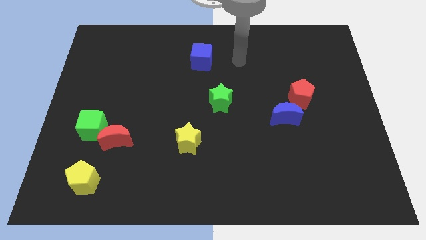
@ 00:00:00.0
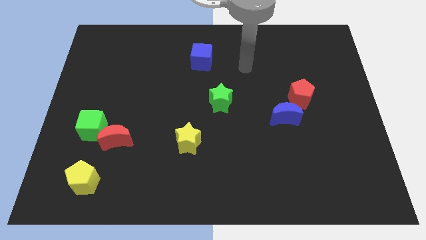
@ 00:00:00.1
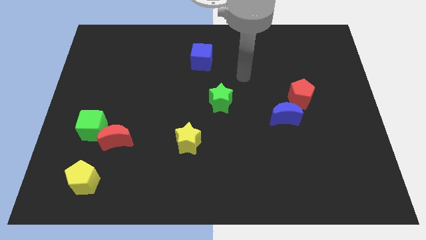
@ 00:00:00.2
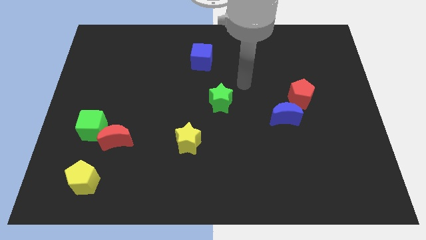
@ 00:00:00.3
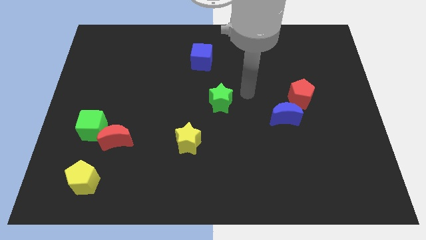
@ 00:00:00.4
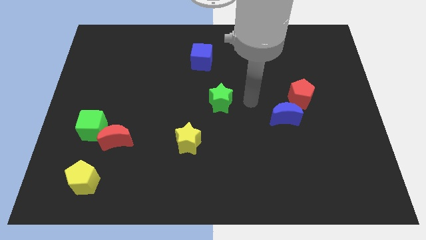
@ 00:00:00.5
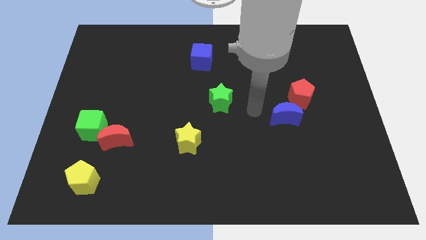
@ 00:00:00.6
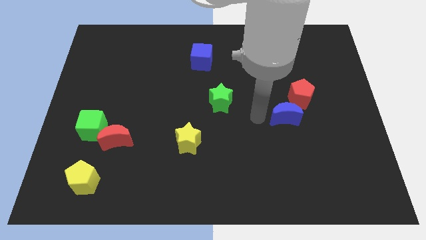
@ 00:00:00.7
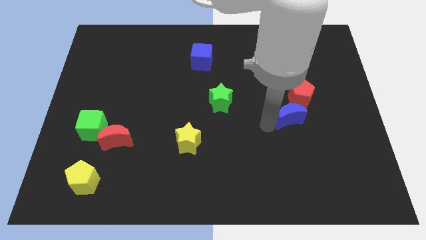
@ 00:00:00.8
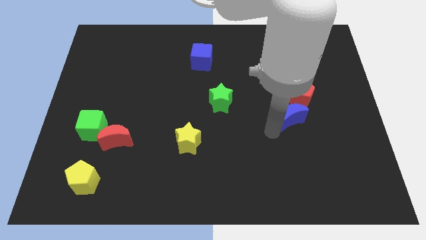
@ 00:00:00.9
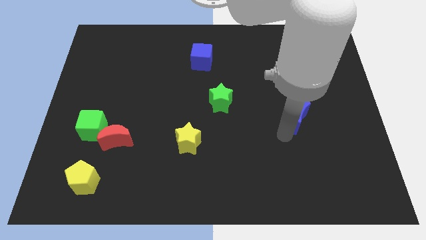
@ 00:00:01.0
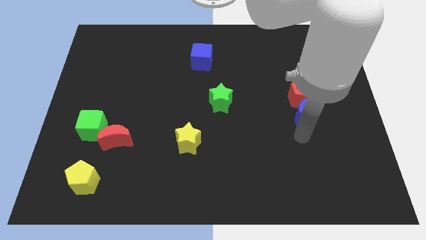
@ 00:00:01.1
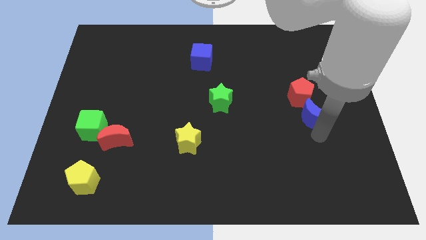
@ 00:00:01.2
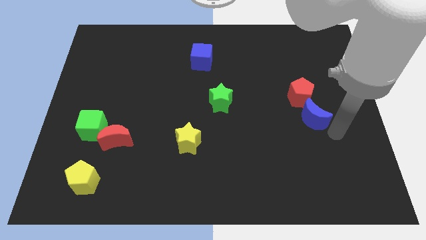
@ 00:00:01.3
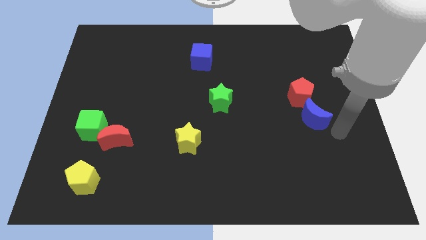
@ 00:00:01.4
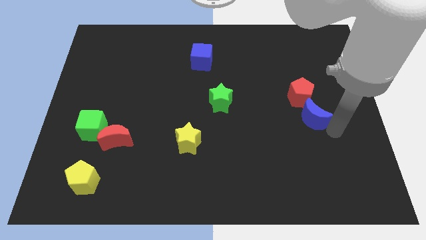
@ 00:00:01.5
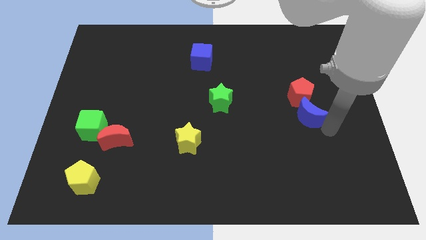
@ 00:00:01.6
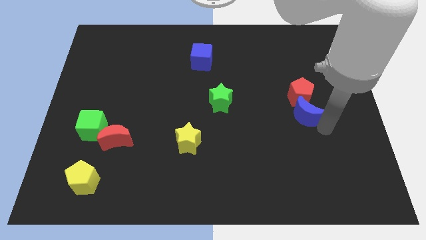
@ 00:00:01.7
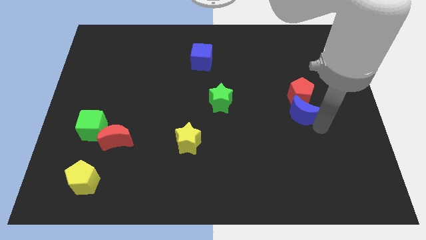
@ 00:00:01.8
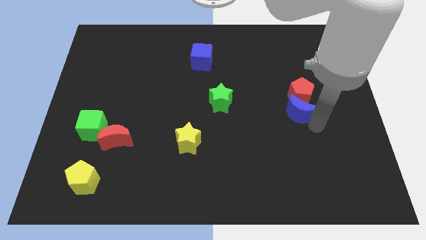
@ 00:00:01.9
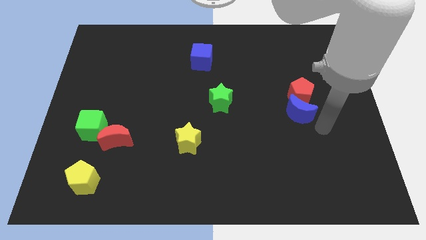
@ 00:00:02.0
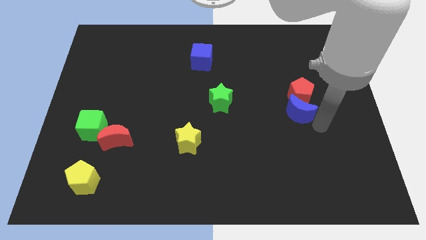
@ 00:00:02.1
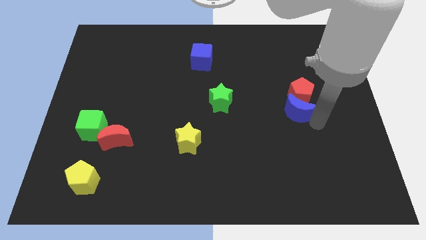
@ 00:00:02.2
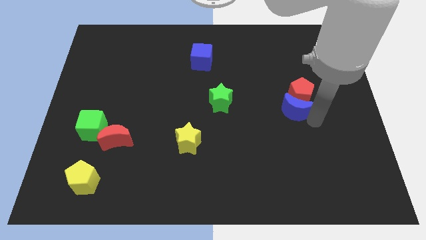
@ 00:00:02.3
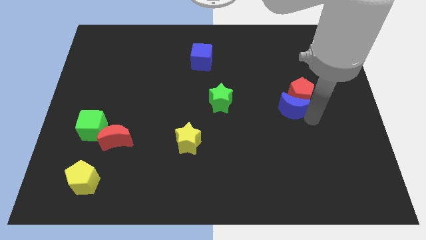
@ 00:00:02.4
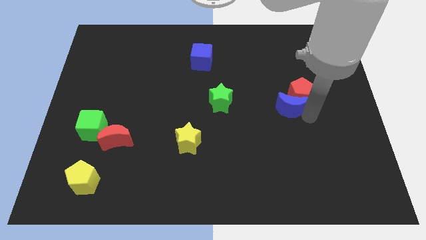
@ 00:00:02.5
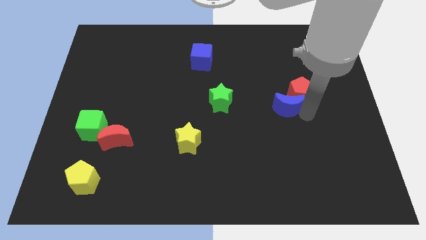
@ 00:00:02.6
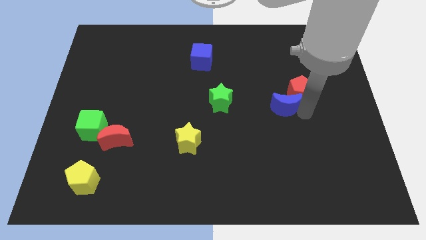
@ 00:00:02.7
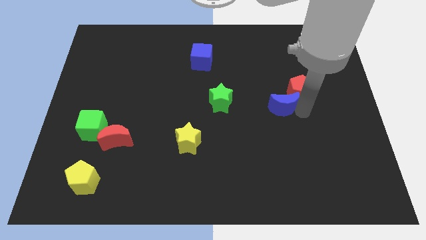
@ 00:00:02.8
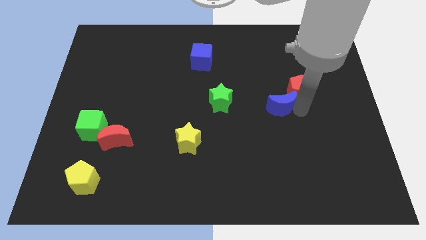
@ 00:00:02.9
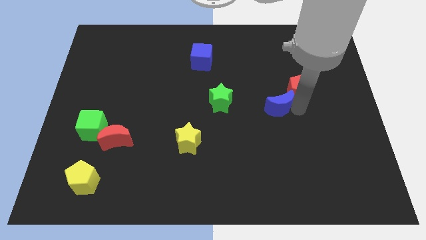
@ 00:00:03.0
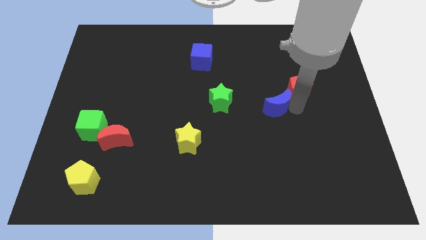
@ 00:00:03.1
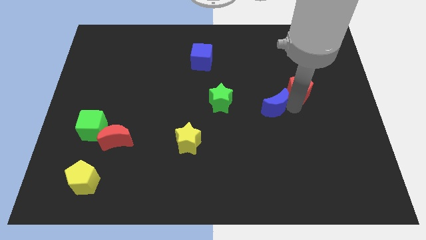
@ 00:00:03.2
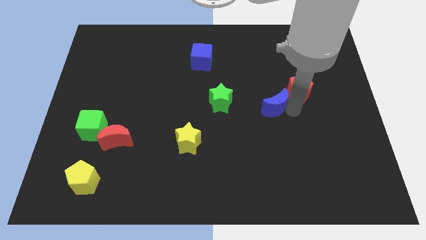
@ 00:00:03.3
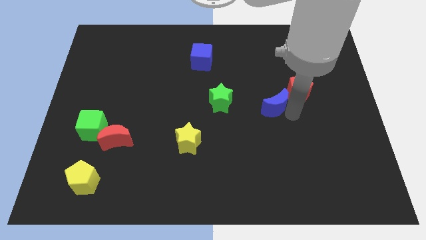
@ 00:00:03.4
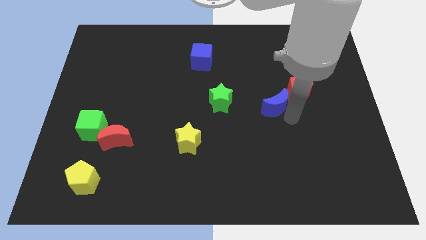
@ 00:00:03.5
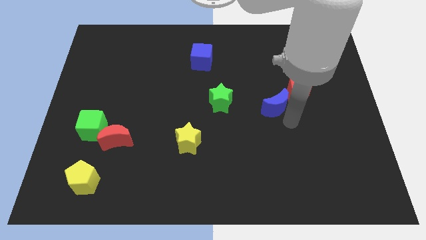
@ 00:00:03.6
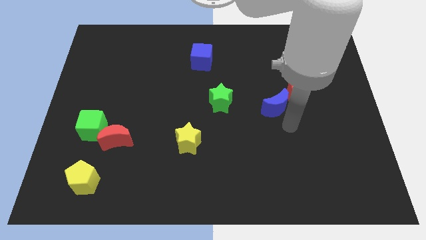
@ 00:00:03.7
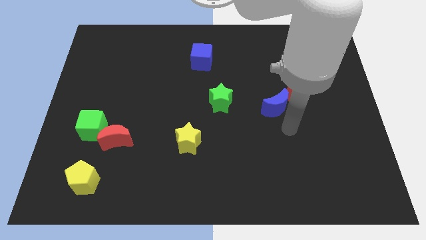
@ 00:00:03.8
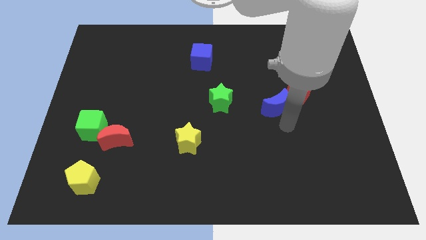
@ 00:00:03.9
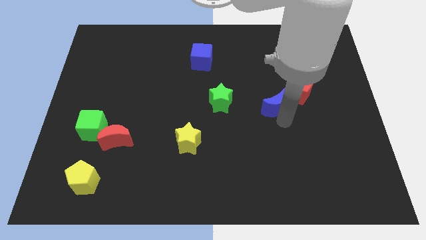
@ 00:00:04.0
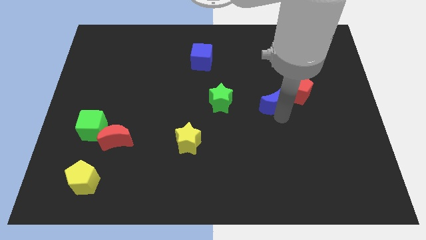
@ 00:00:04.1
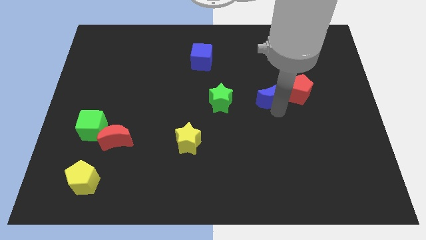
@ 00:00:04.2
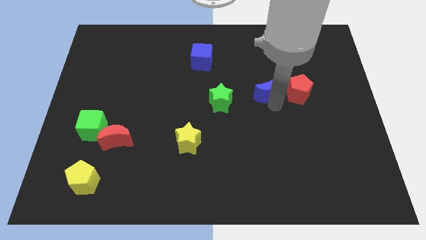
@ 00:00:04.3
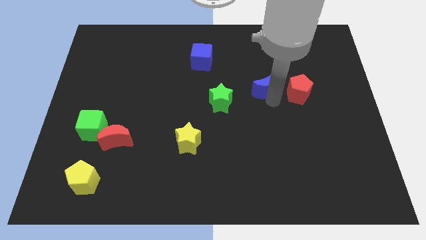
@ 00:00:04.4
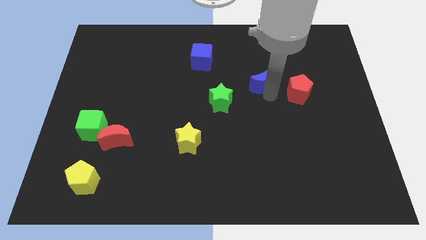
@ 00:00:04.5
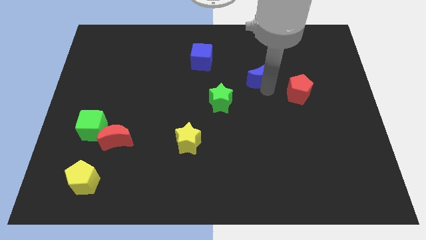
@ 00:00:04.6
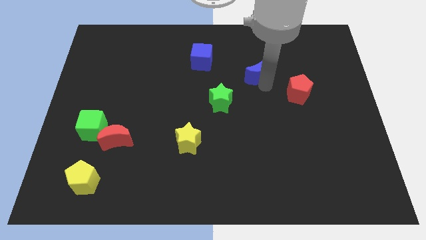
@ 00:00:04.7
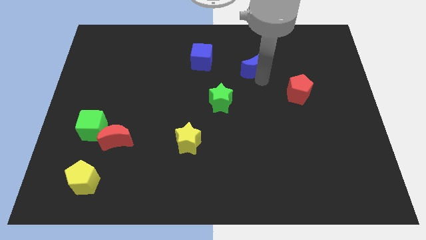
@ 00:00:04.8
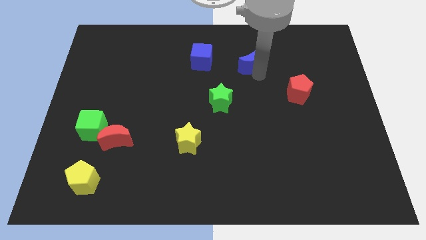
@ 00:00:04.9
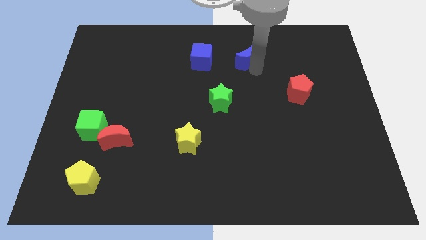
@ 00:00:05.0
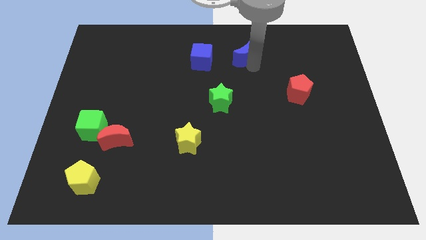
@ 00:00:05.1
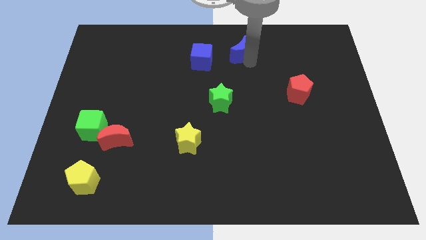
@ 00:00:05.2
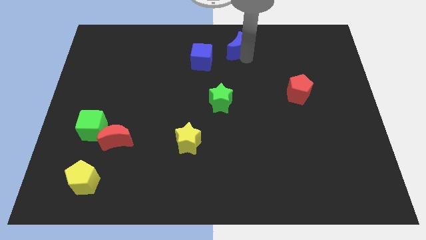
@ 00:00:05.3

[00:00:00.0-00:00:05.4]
push the blue moon to the top
